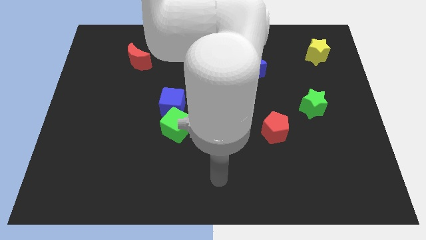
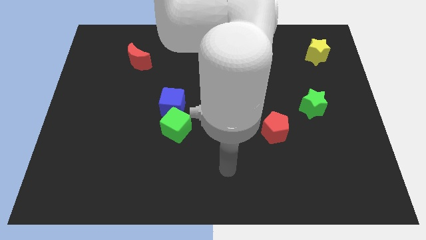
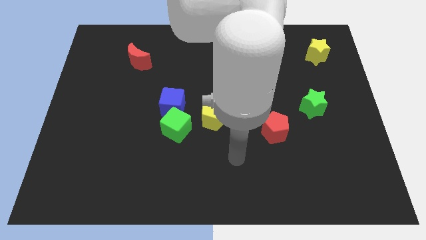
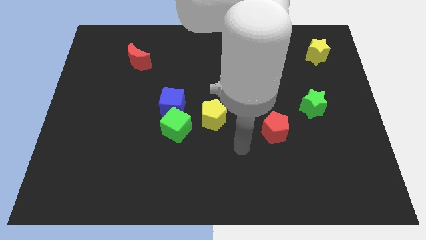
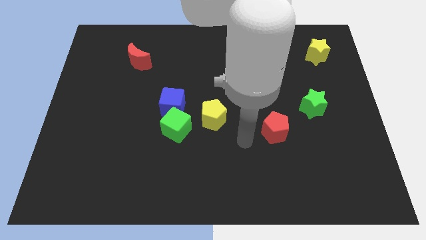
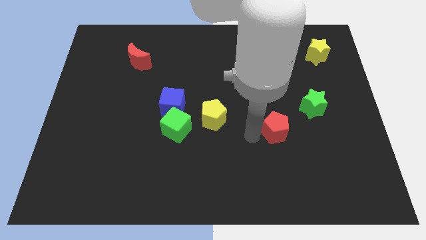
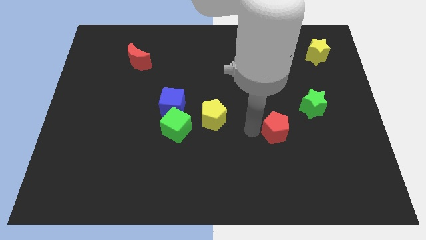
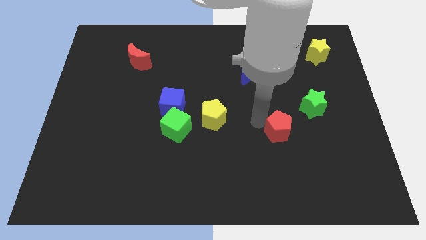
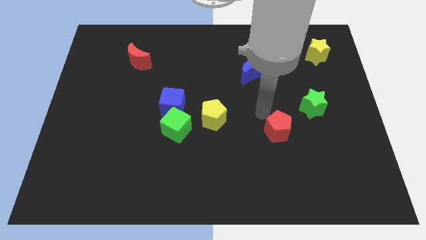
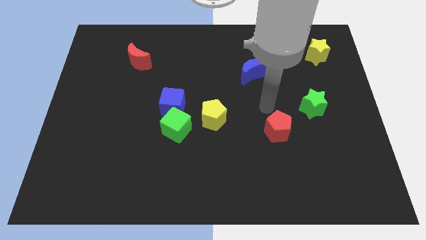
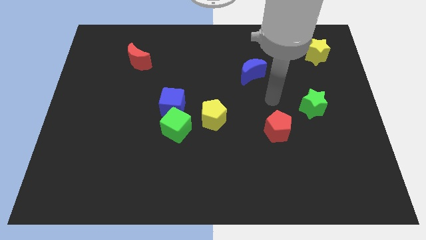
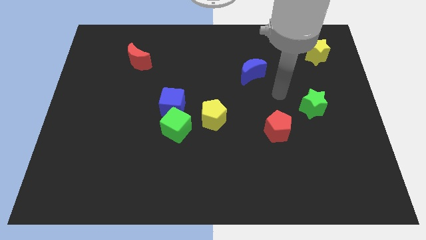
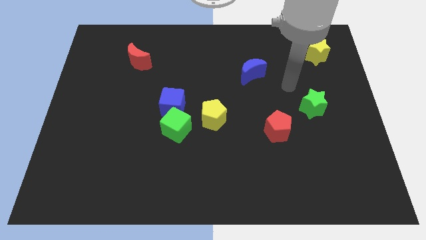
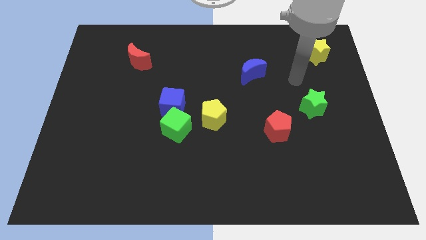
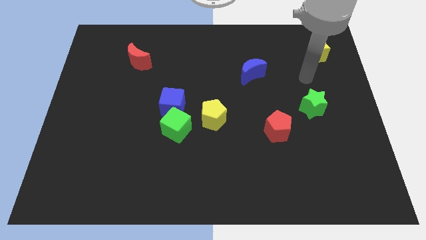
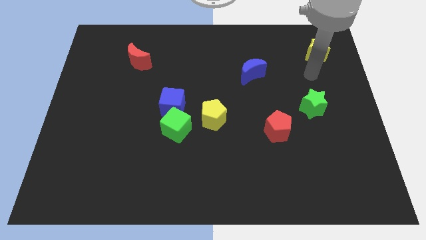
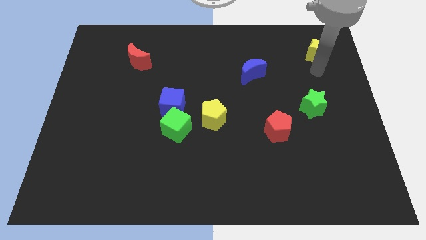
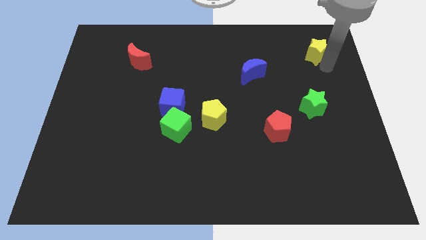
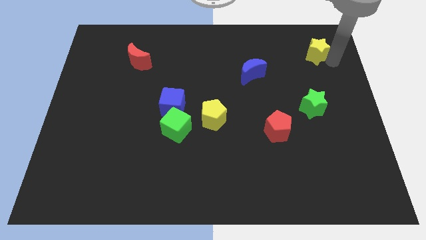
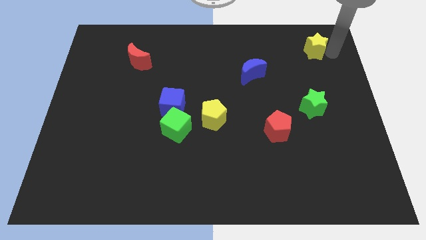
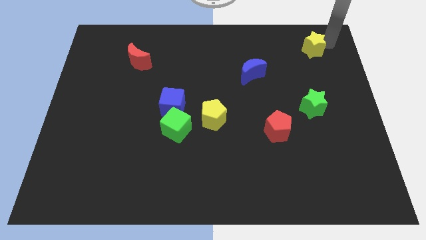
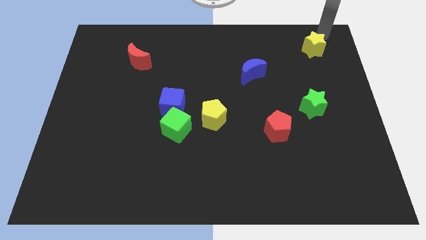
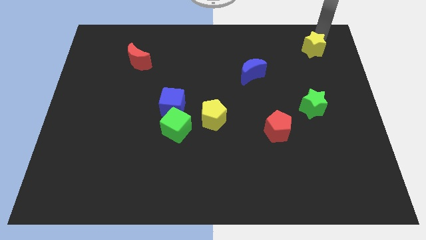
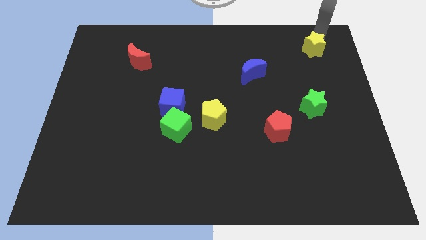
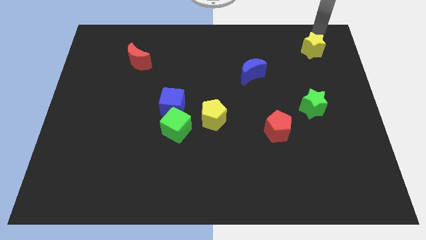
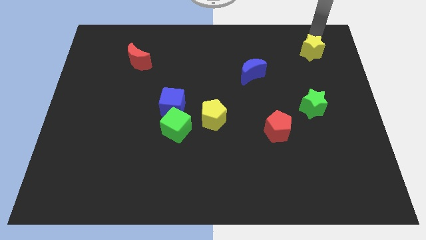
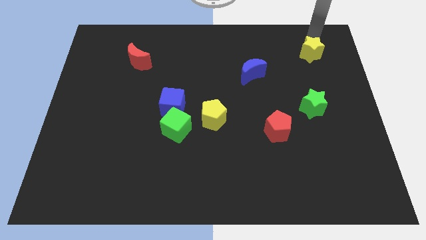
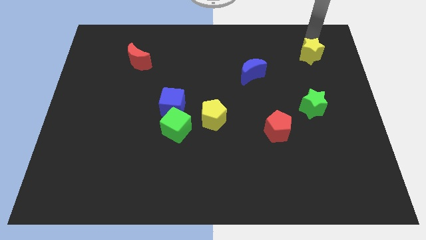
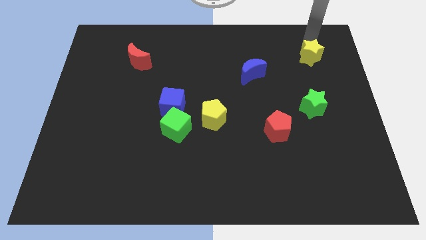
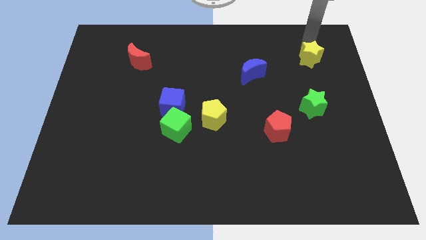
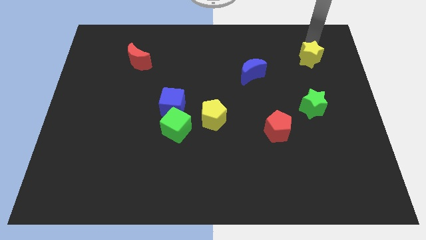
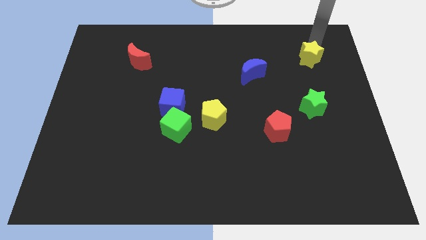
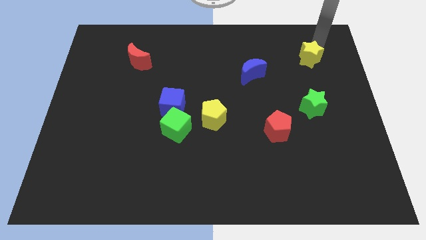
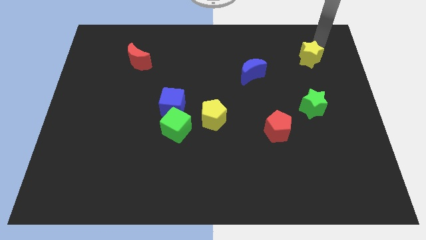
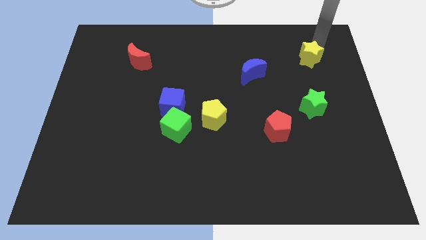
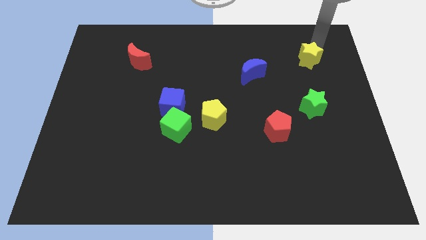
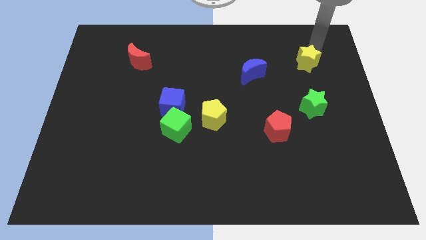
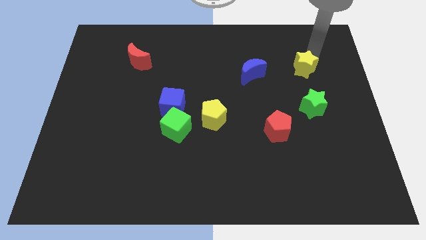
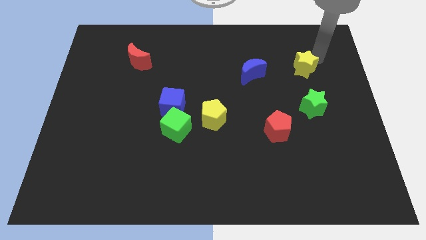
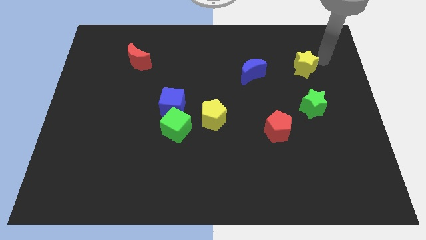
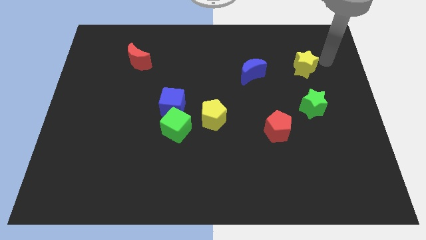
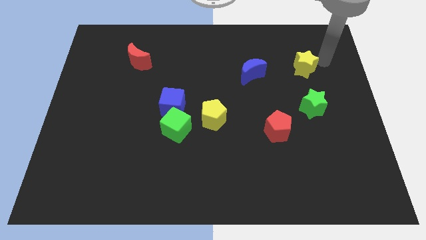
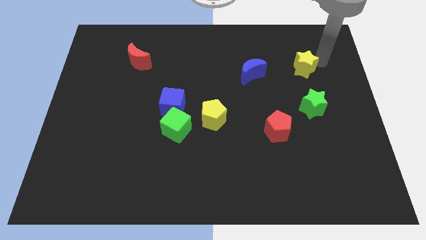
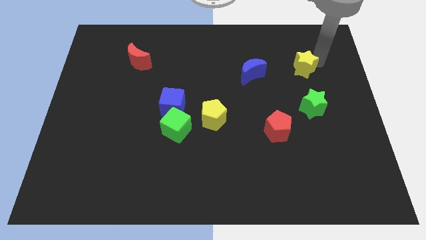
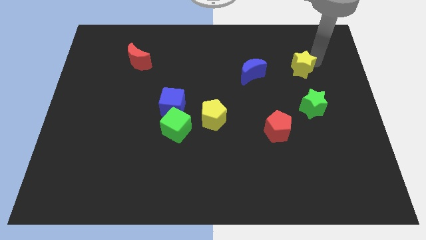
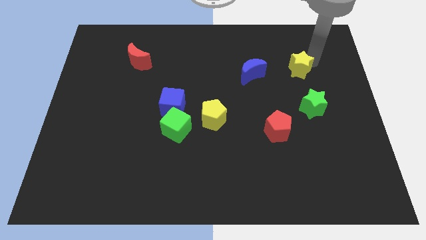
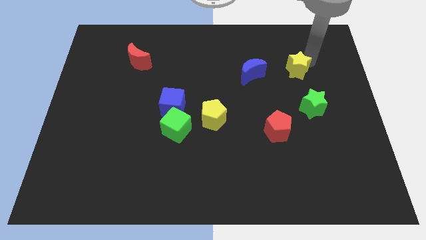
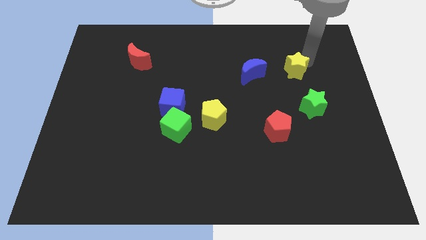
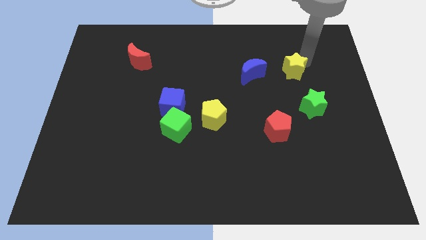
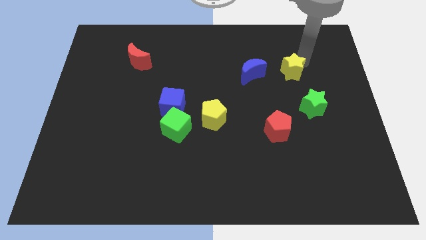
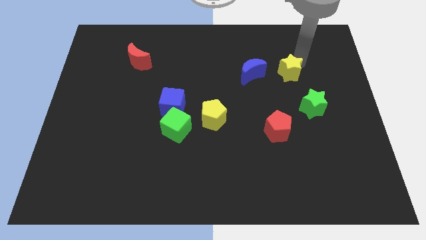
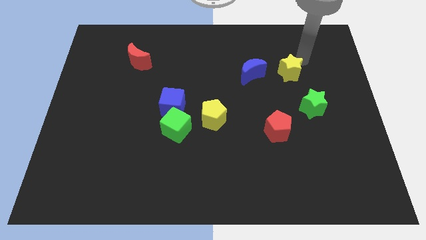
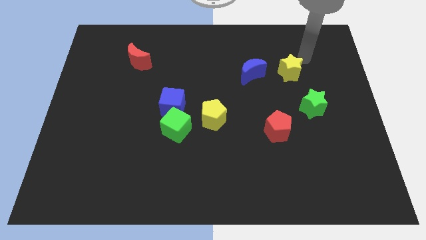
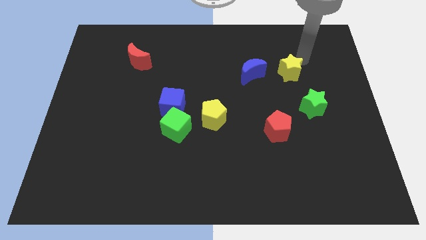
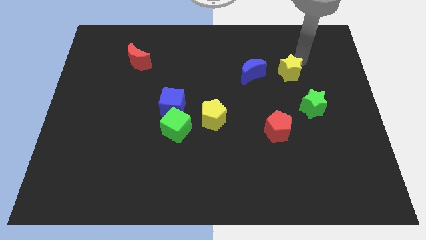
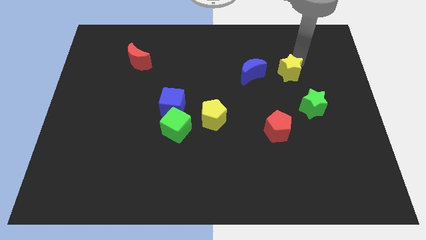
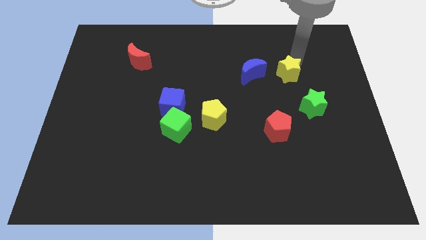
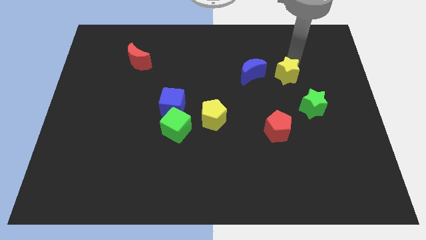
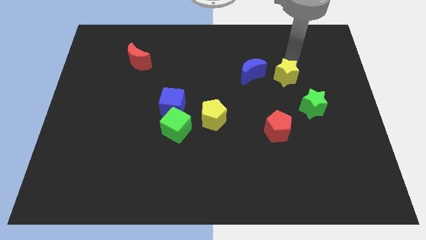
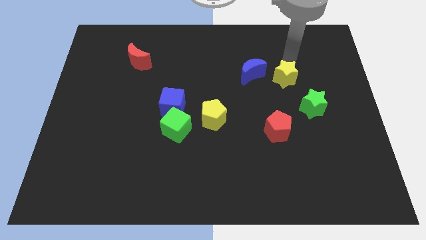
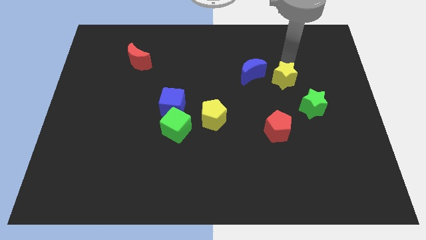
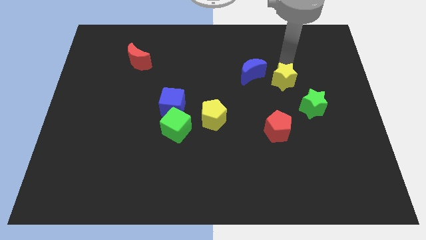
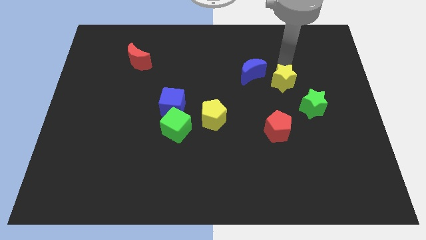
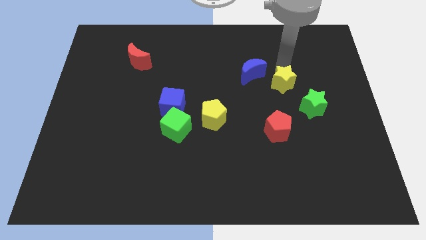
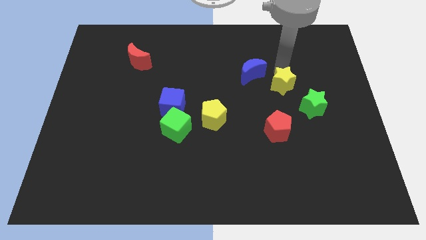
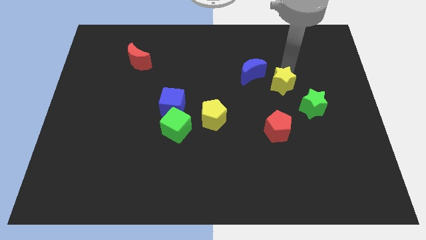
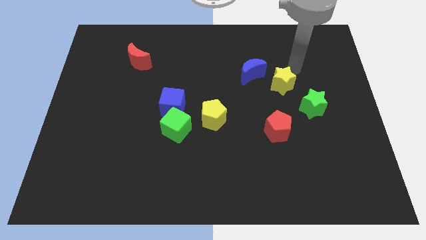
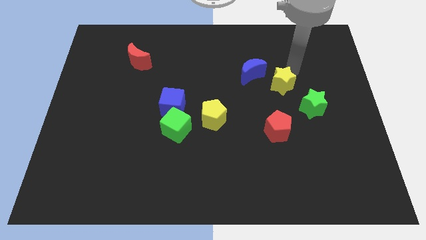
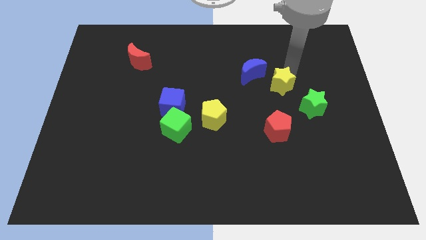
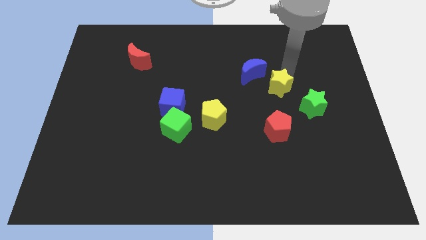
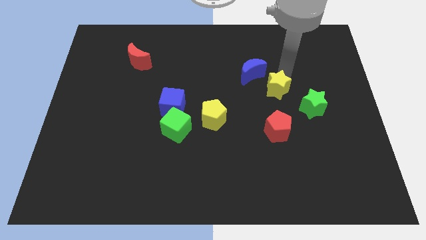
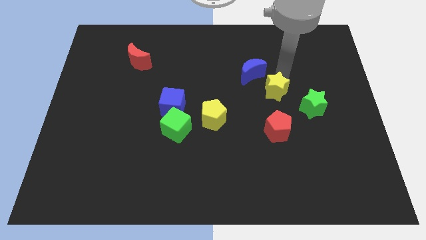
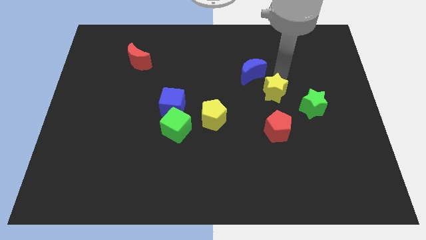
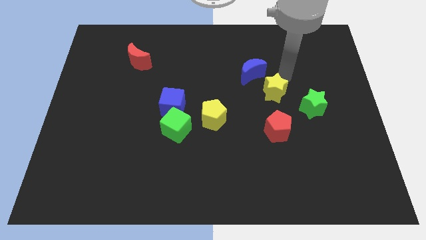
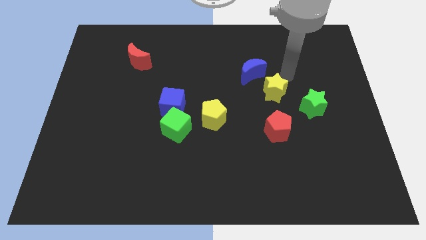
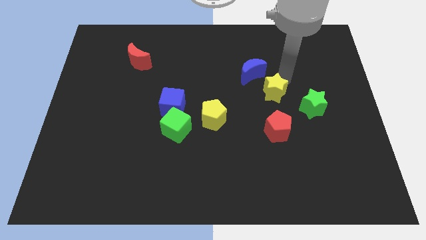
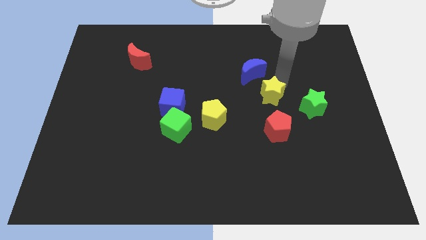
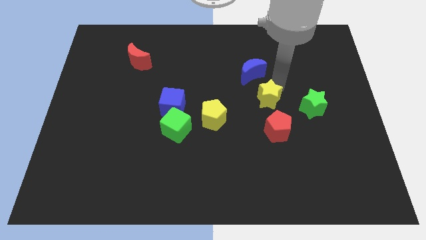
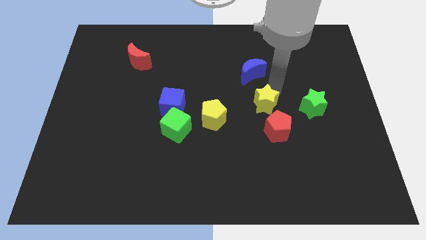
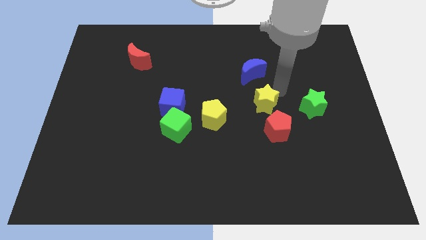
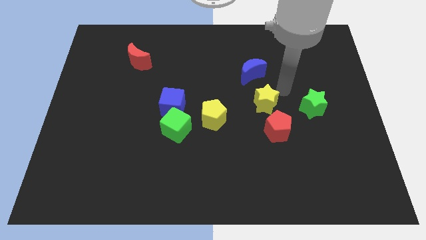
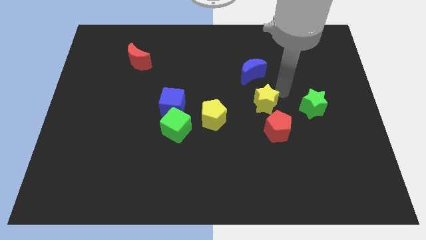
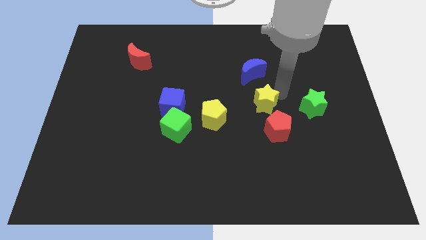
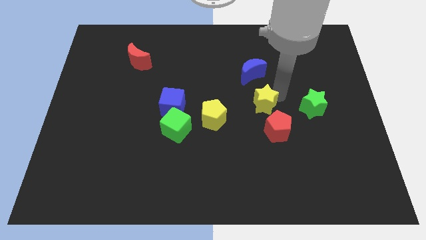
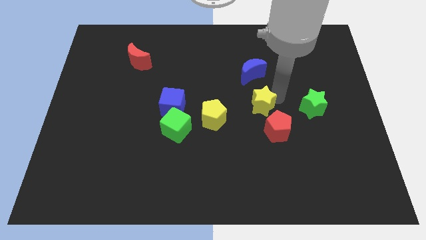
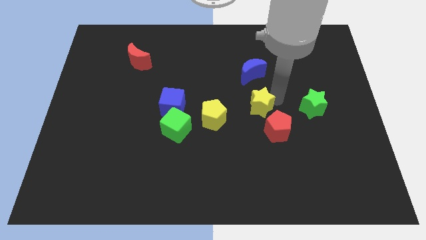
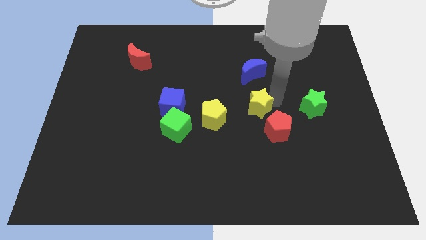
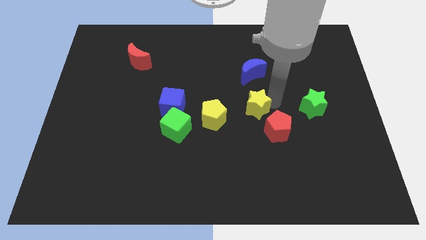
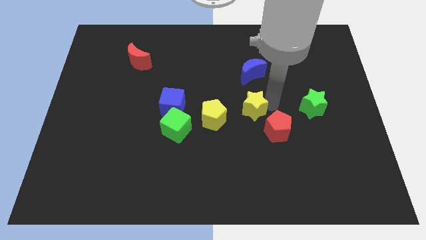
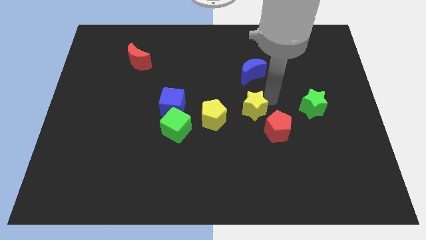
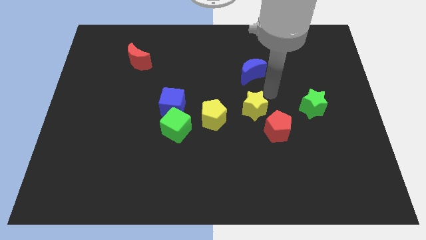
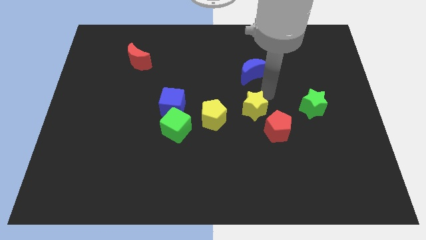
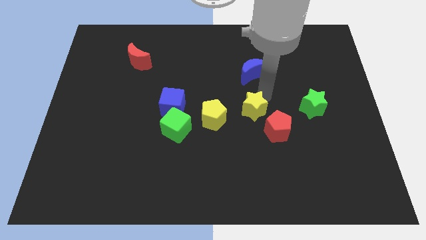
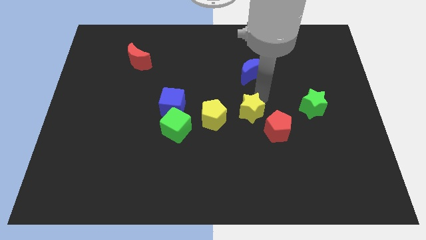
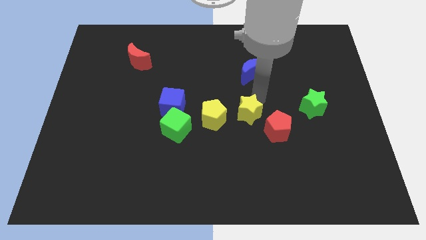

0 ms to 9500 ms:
push the yellow star left of the red pentagon
